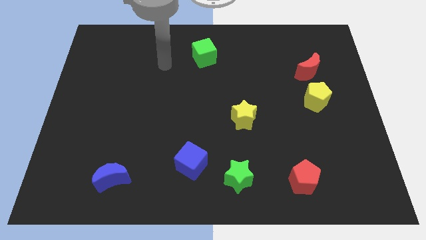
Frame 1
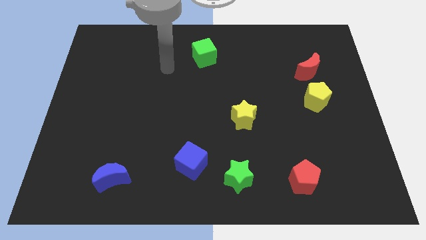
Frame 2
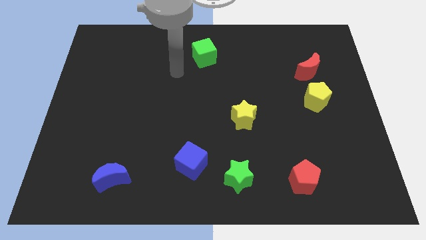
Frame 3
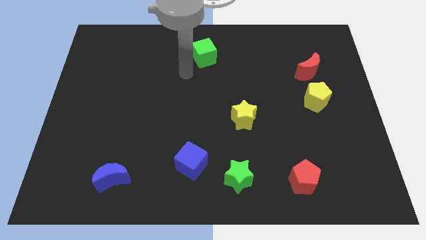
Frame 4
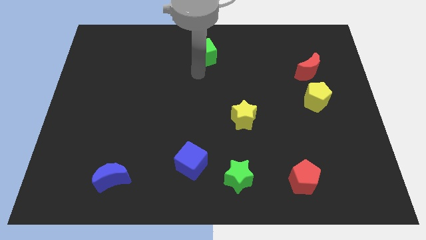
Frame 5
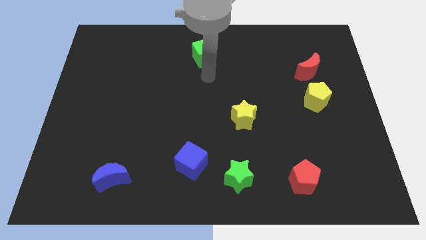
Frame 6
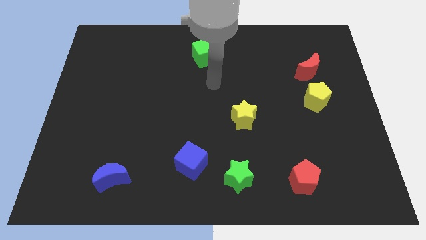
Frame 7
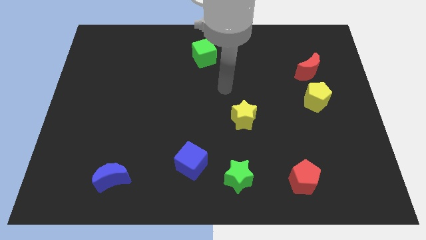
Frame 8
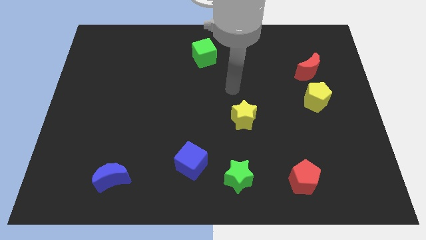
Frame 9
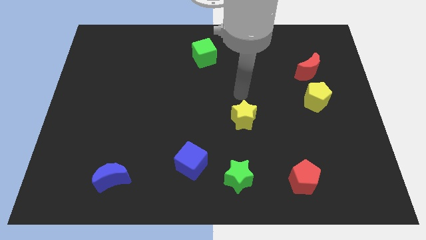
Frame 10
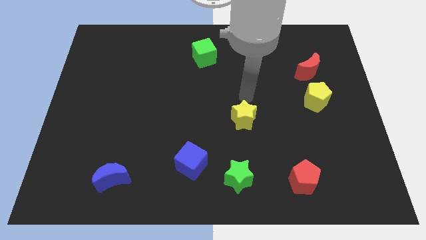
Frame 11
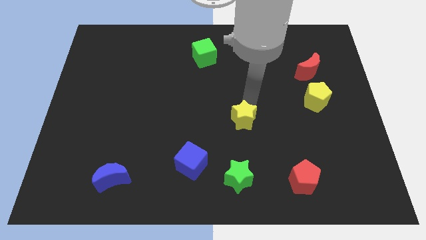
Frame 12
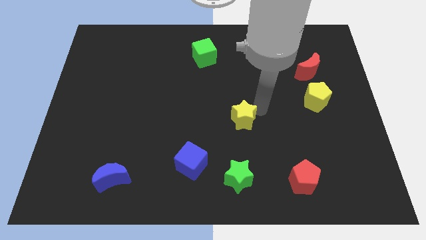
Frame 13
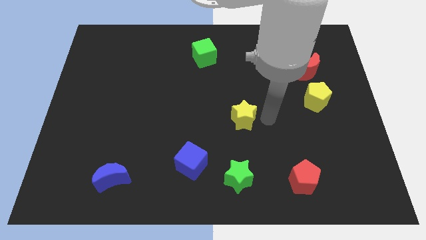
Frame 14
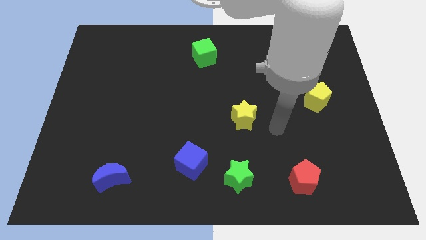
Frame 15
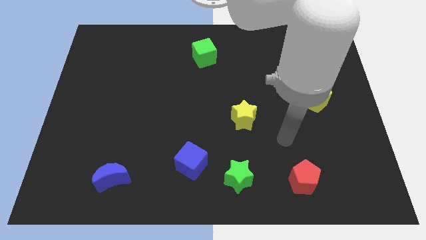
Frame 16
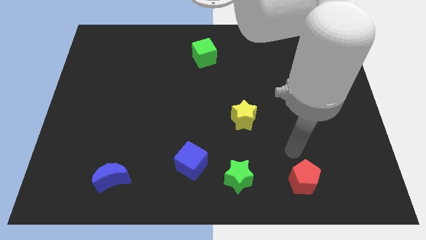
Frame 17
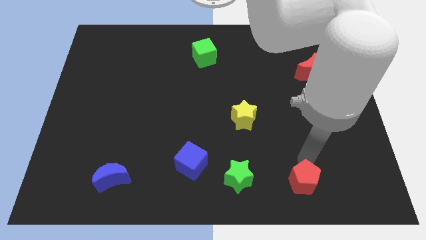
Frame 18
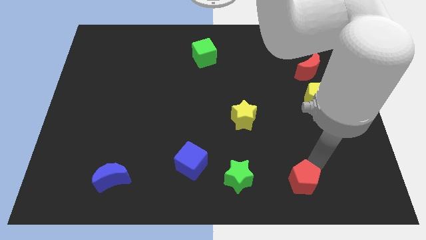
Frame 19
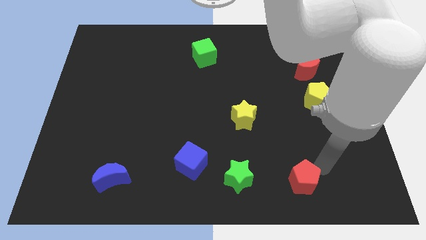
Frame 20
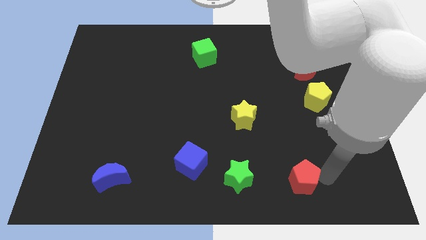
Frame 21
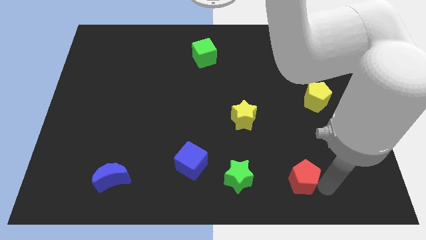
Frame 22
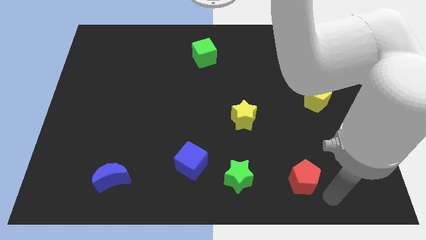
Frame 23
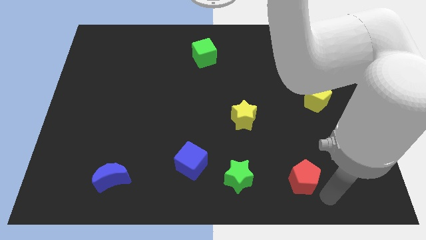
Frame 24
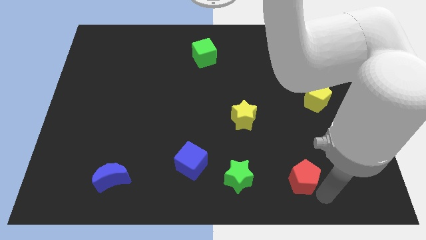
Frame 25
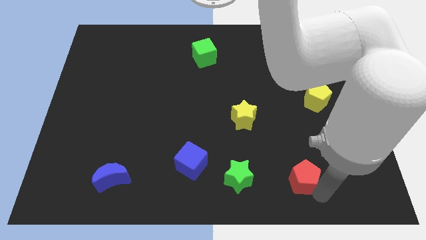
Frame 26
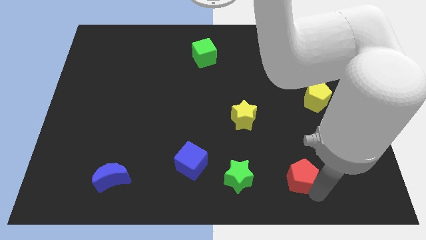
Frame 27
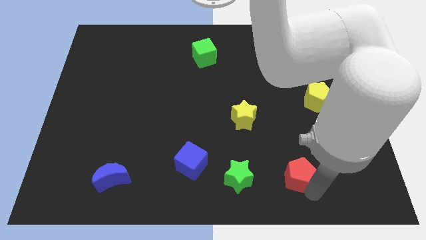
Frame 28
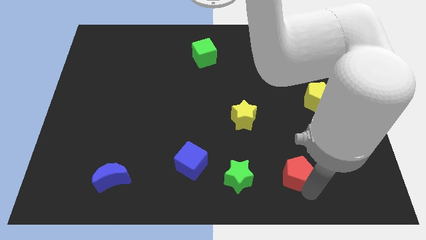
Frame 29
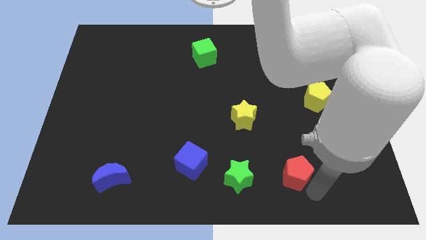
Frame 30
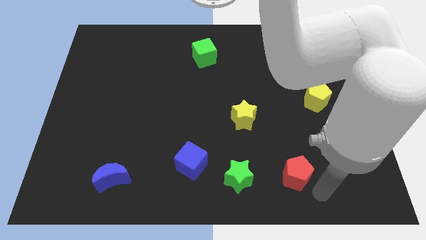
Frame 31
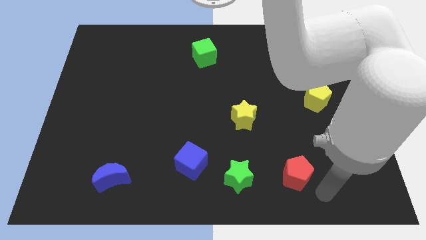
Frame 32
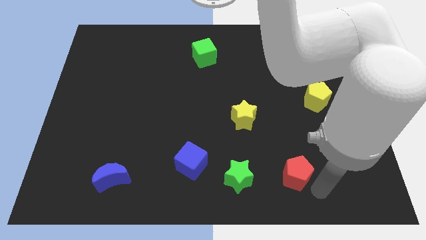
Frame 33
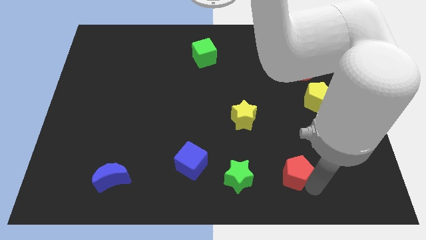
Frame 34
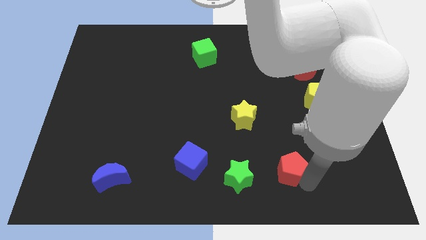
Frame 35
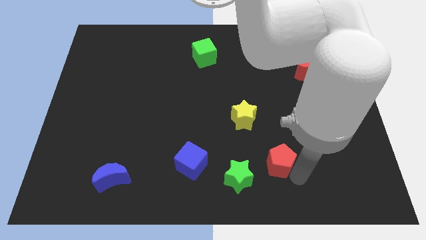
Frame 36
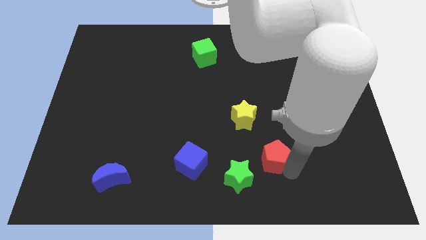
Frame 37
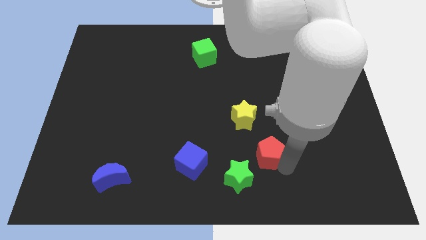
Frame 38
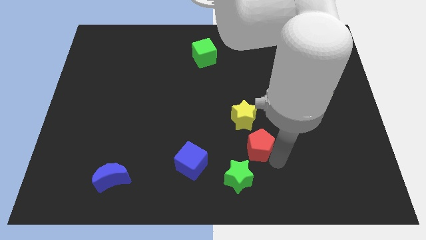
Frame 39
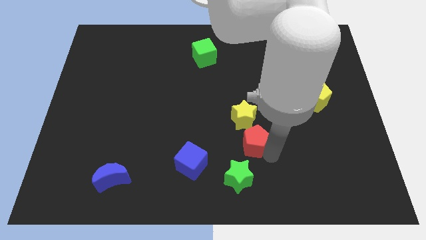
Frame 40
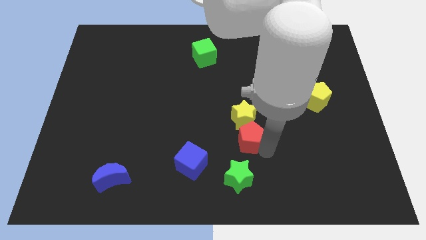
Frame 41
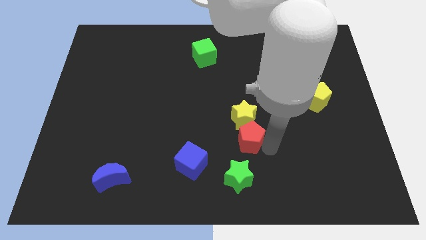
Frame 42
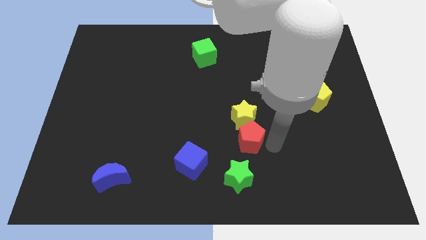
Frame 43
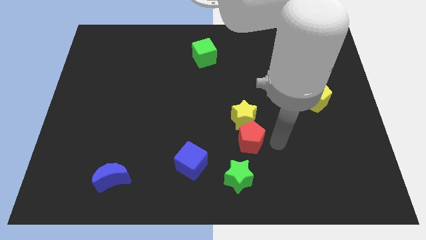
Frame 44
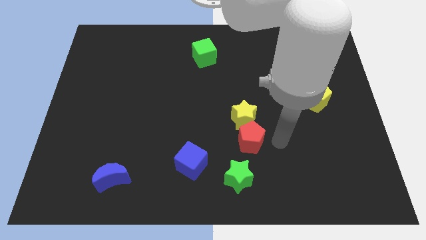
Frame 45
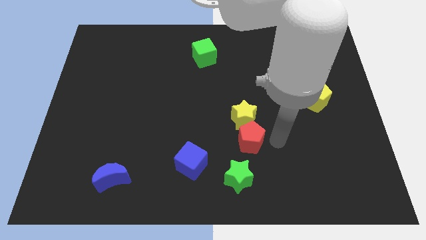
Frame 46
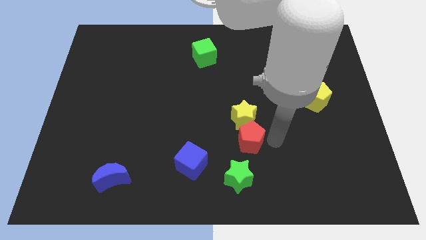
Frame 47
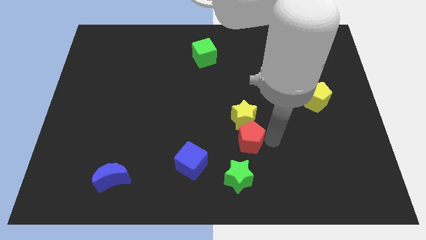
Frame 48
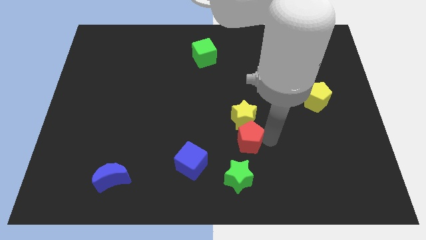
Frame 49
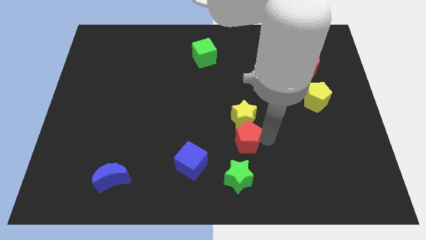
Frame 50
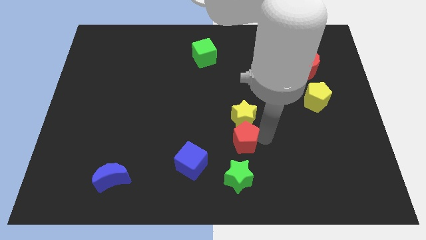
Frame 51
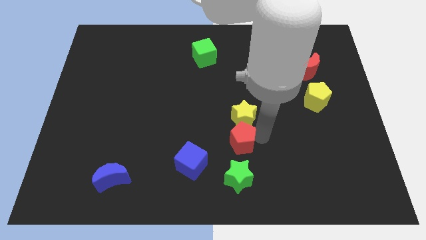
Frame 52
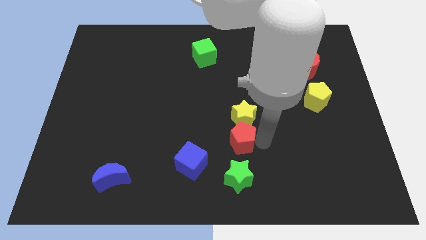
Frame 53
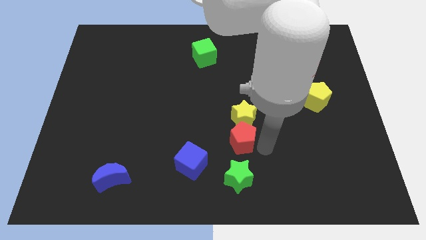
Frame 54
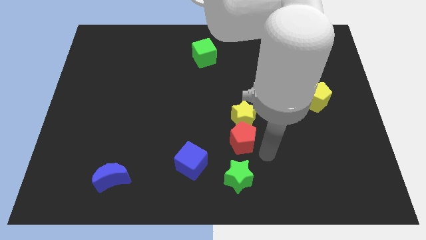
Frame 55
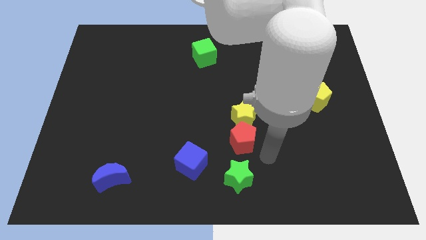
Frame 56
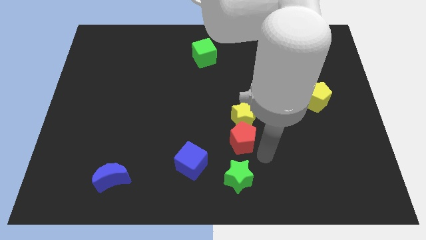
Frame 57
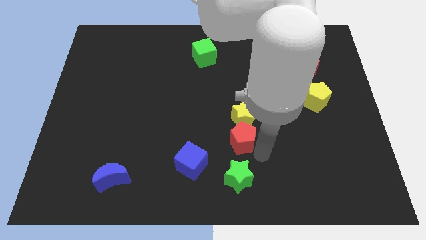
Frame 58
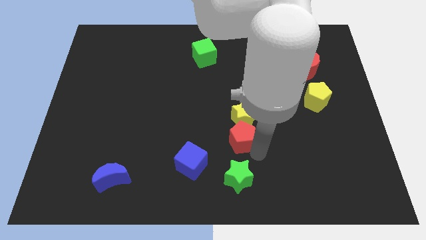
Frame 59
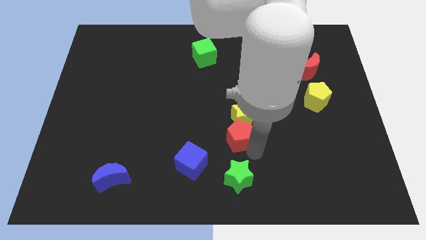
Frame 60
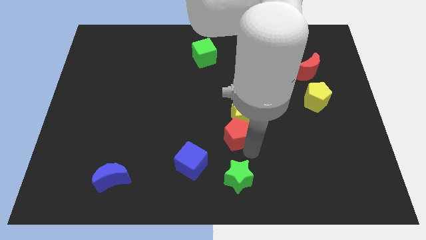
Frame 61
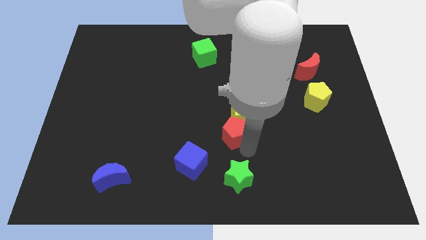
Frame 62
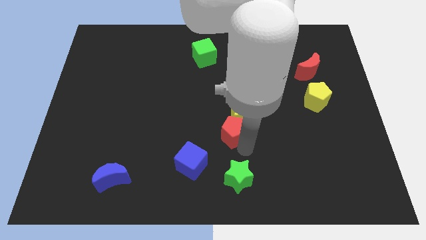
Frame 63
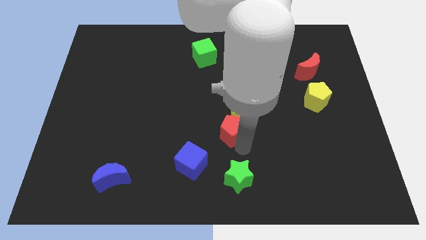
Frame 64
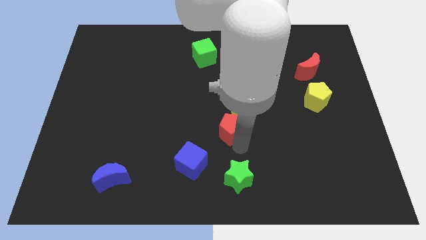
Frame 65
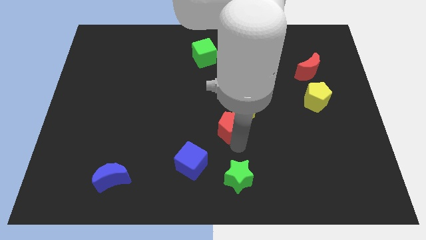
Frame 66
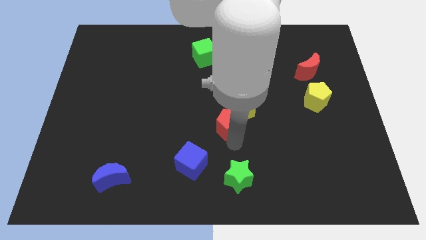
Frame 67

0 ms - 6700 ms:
slide the red pentagon diagonally up and left

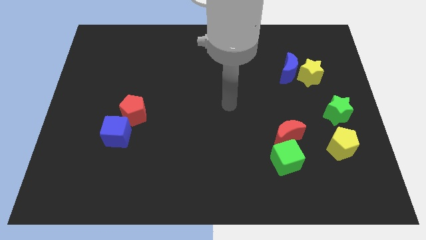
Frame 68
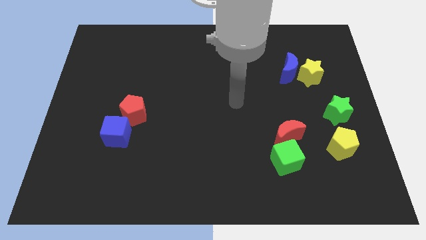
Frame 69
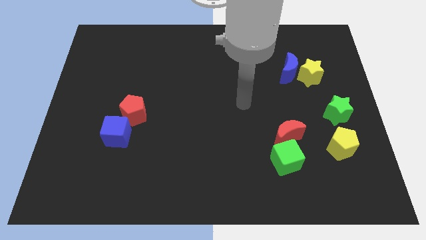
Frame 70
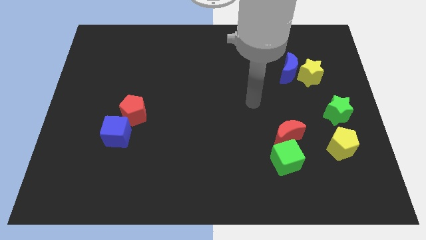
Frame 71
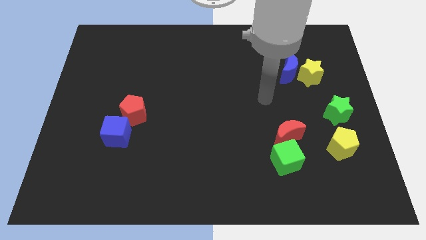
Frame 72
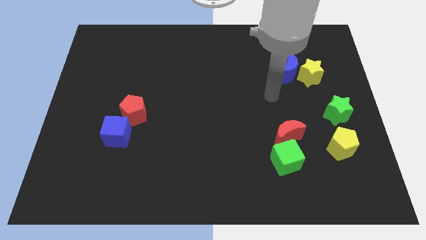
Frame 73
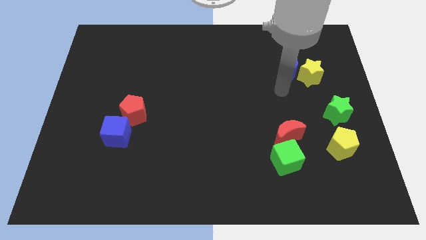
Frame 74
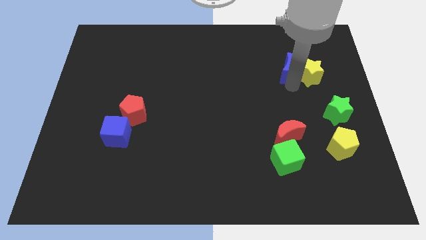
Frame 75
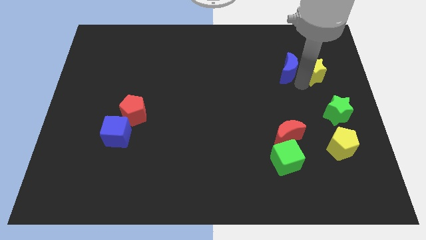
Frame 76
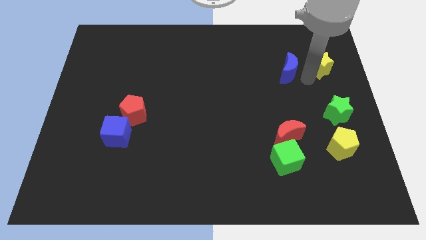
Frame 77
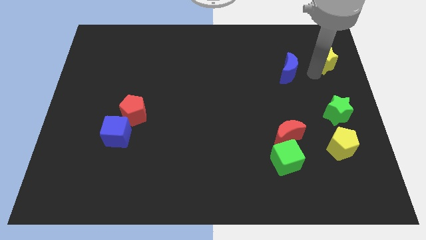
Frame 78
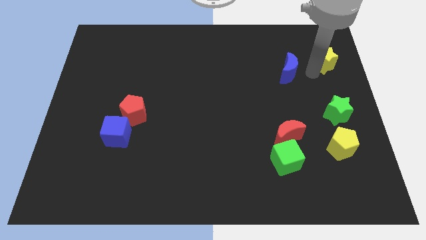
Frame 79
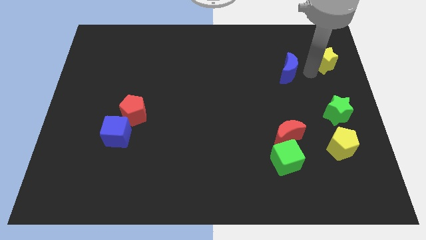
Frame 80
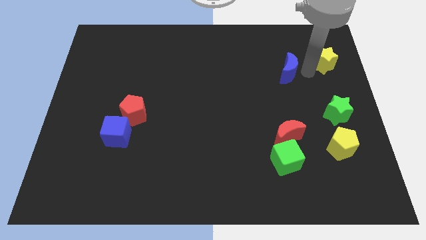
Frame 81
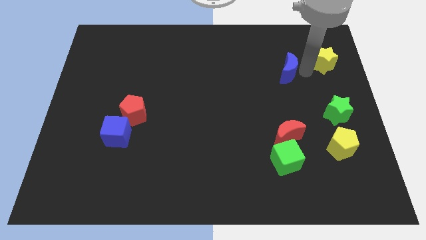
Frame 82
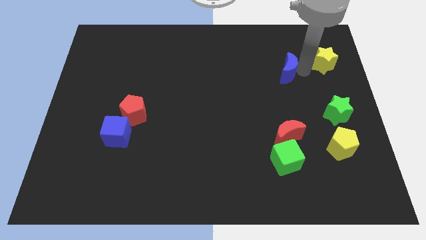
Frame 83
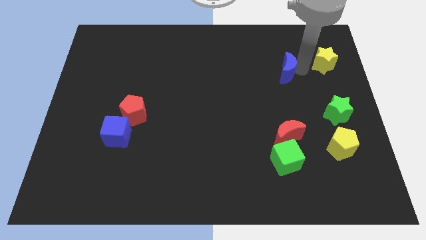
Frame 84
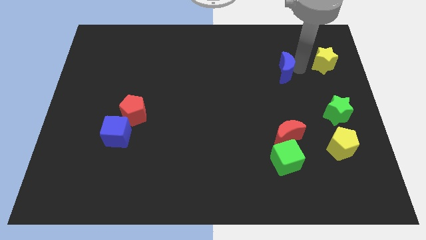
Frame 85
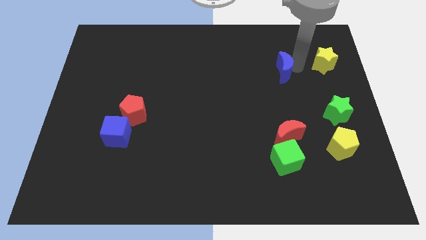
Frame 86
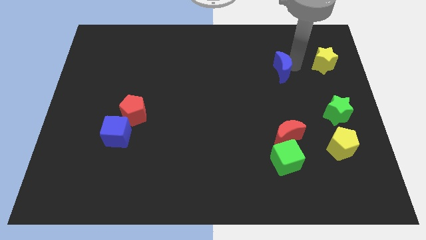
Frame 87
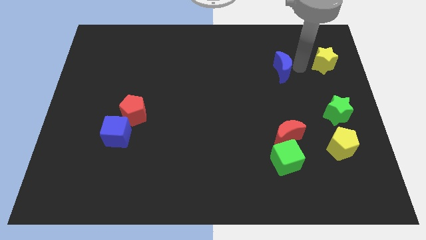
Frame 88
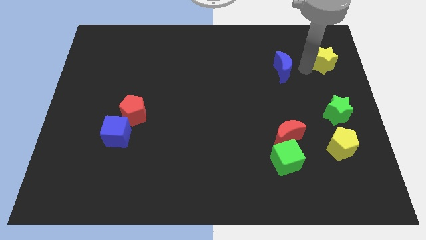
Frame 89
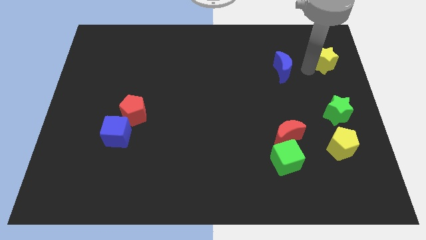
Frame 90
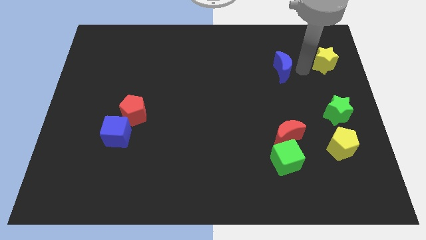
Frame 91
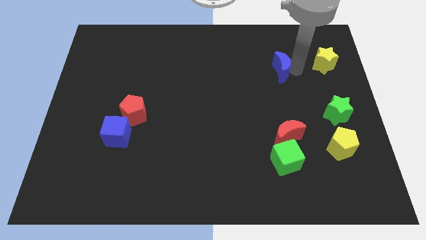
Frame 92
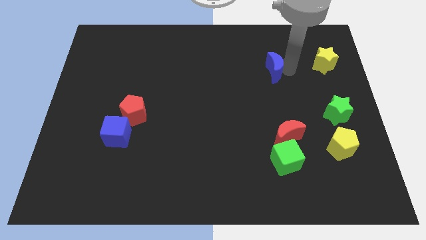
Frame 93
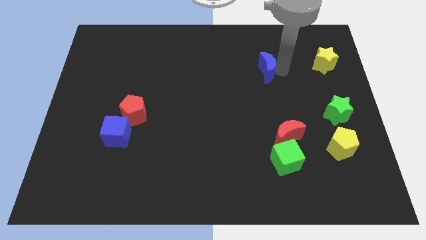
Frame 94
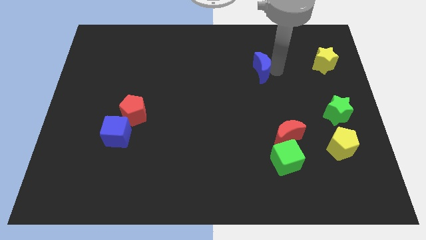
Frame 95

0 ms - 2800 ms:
slightly slide the blue moon to the left
